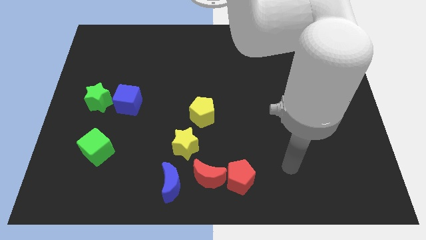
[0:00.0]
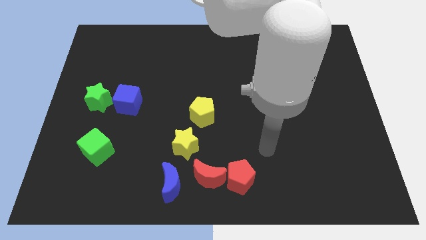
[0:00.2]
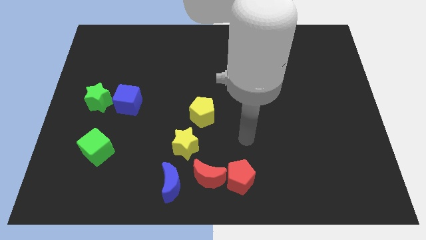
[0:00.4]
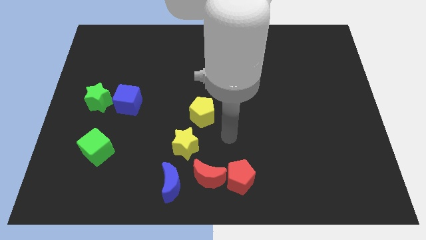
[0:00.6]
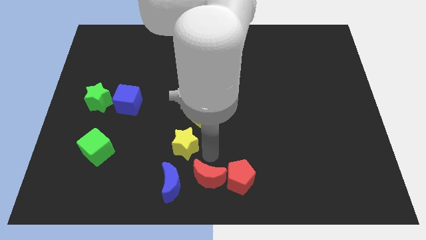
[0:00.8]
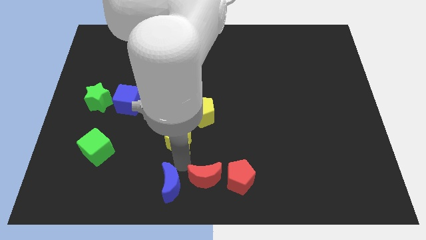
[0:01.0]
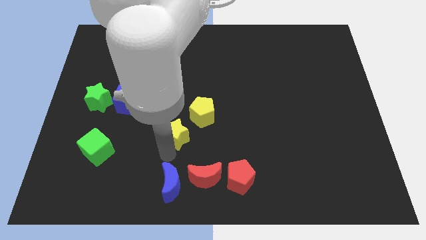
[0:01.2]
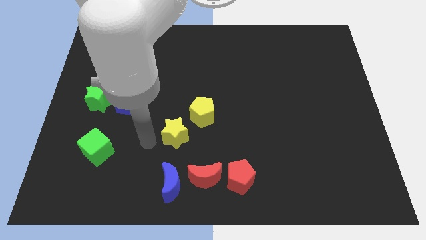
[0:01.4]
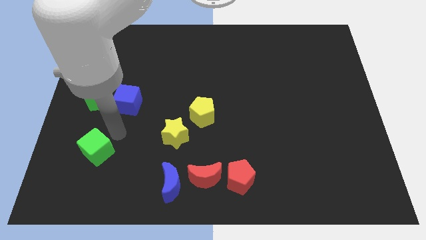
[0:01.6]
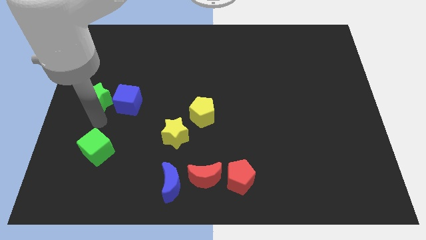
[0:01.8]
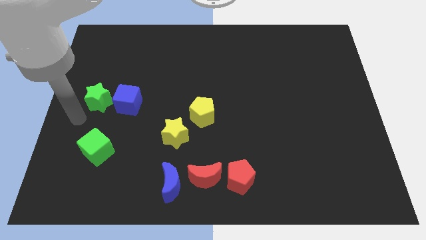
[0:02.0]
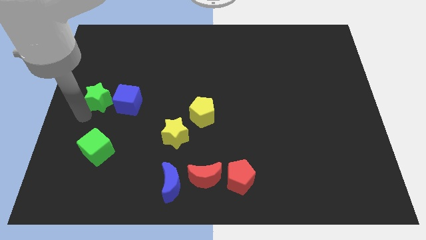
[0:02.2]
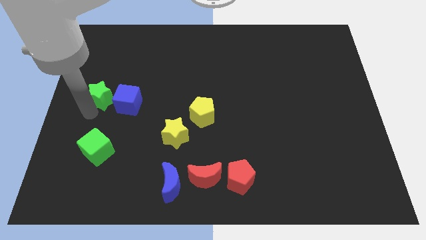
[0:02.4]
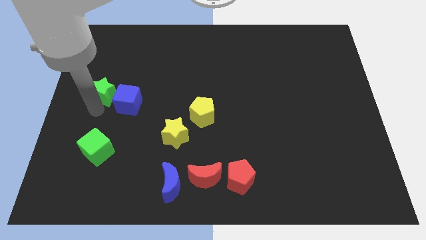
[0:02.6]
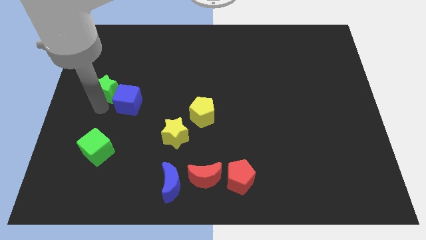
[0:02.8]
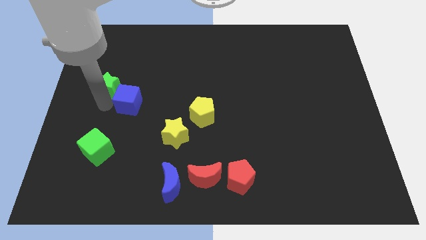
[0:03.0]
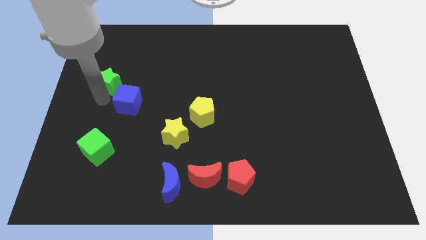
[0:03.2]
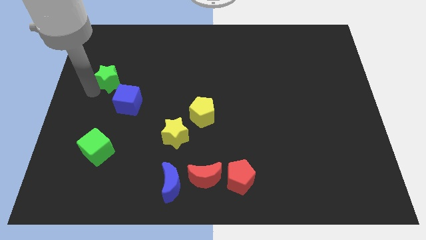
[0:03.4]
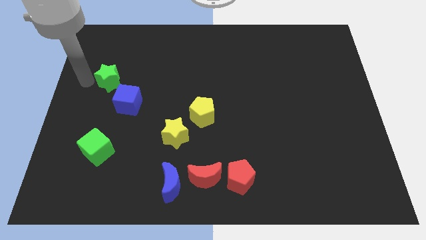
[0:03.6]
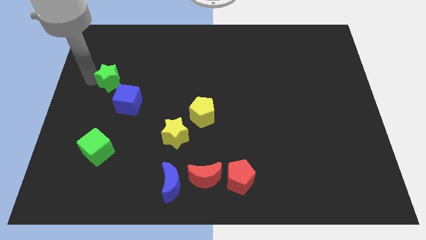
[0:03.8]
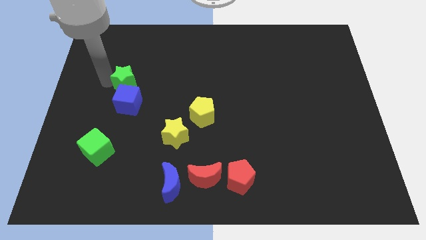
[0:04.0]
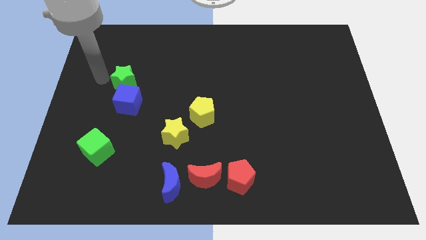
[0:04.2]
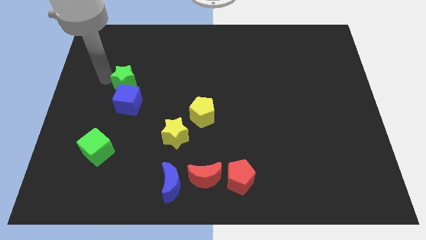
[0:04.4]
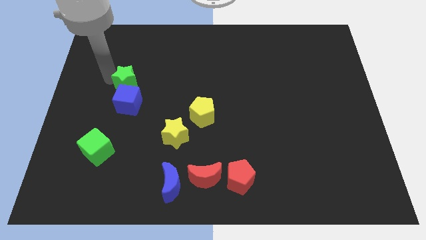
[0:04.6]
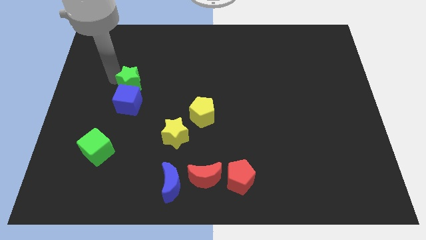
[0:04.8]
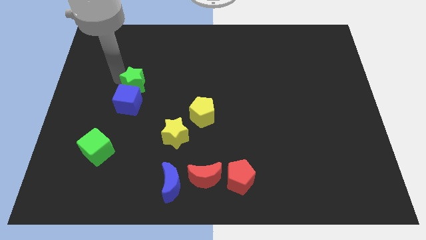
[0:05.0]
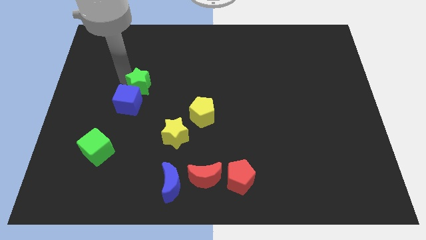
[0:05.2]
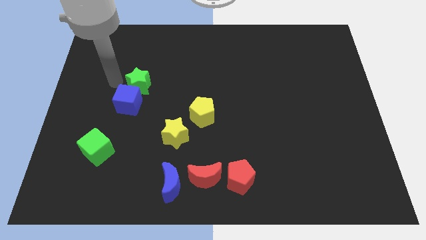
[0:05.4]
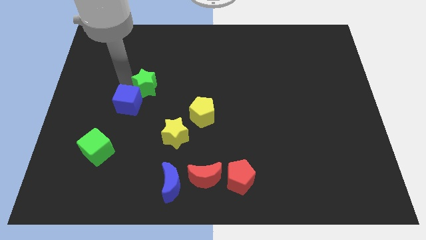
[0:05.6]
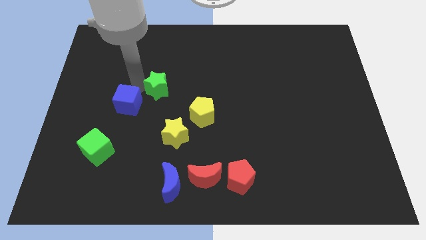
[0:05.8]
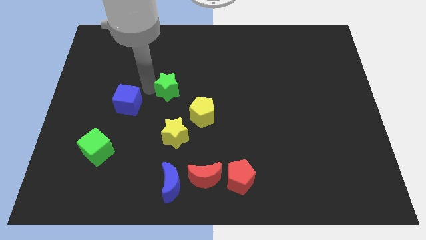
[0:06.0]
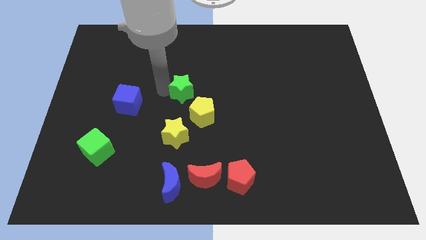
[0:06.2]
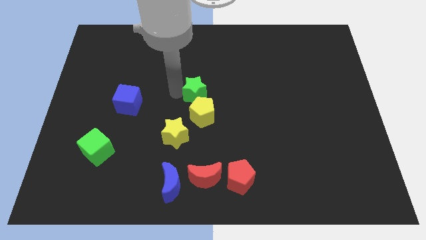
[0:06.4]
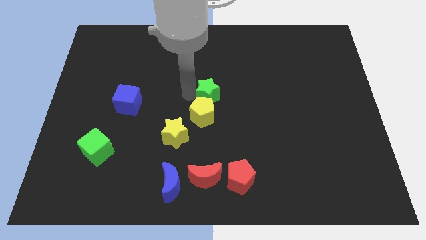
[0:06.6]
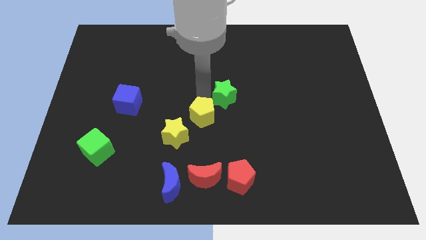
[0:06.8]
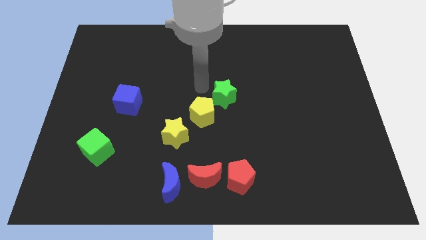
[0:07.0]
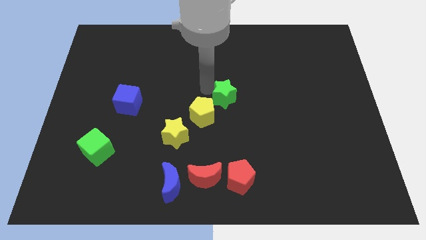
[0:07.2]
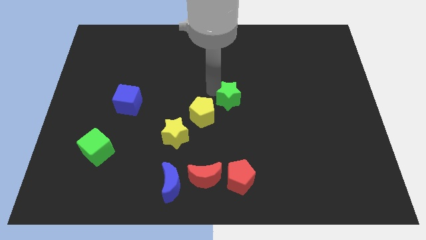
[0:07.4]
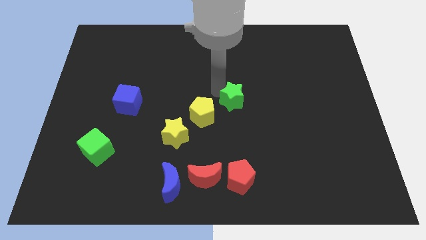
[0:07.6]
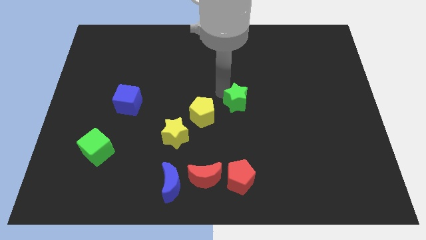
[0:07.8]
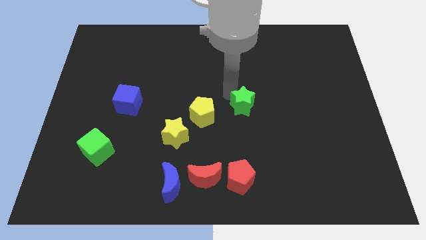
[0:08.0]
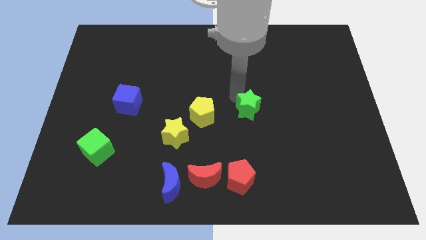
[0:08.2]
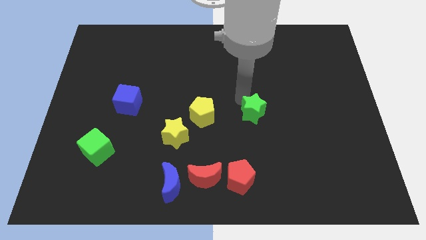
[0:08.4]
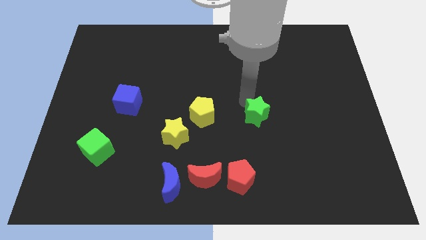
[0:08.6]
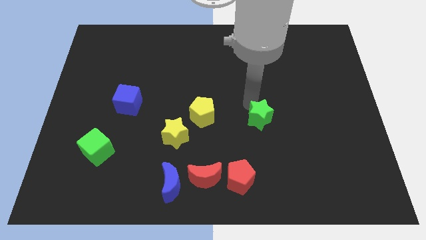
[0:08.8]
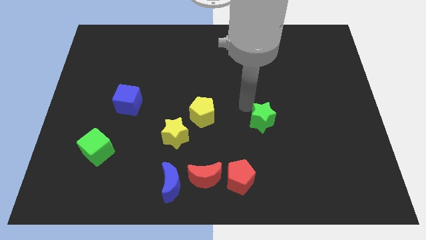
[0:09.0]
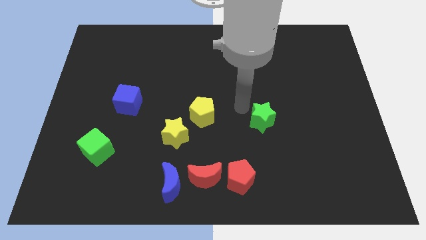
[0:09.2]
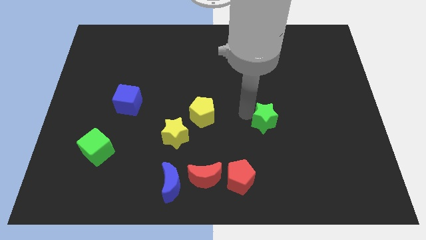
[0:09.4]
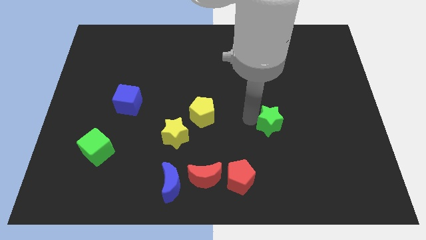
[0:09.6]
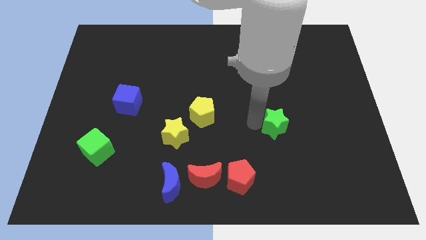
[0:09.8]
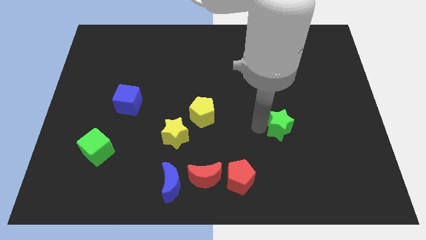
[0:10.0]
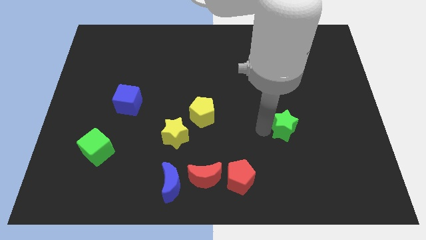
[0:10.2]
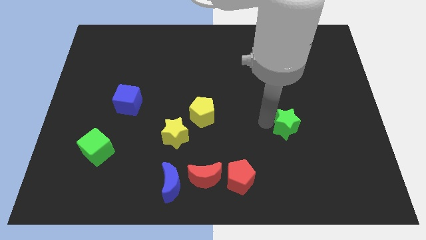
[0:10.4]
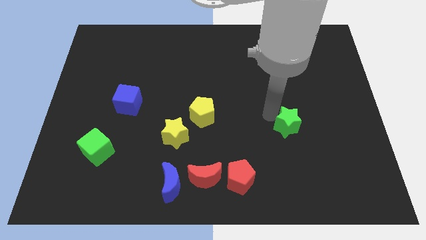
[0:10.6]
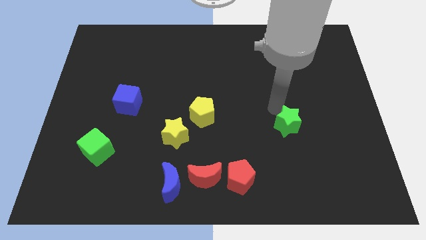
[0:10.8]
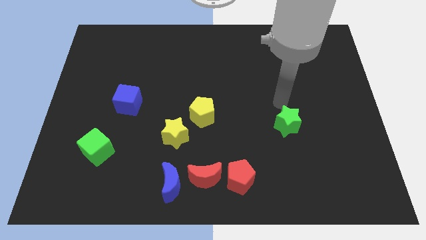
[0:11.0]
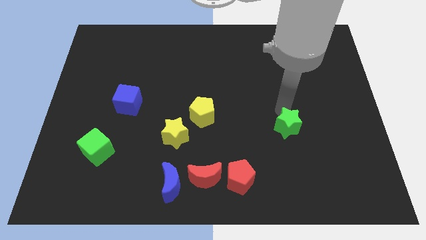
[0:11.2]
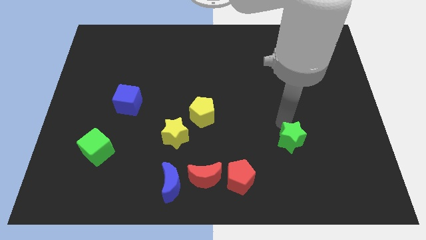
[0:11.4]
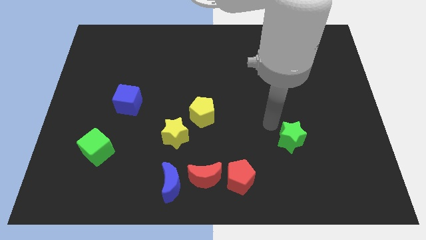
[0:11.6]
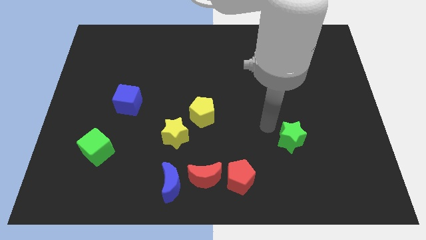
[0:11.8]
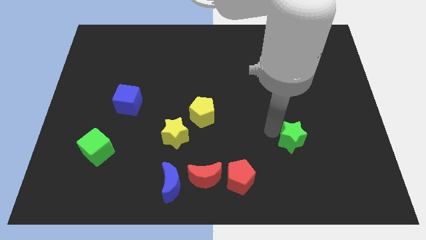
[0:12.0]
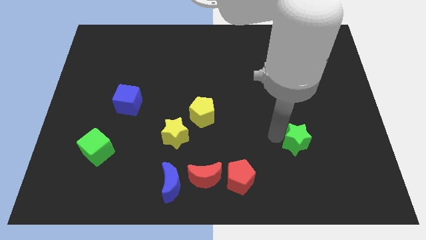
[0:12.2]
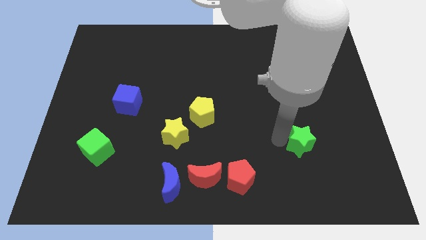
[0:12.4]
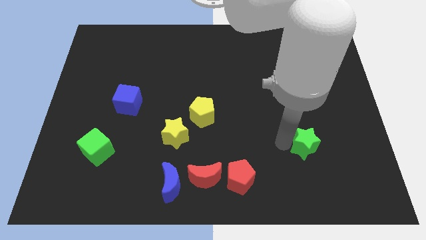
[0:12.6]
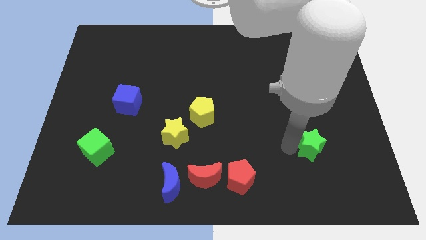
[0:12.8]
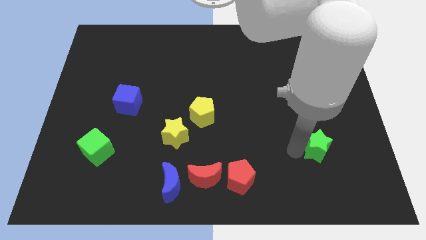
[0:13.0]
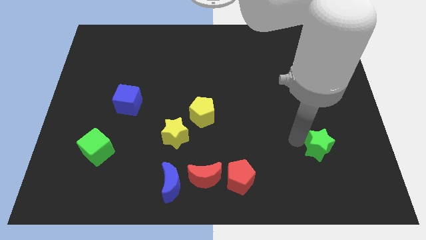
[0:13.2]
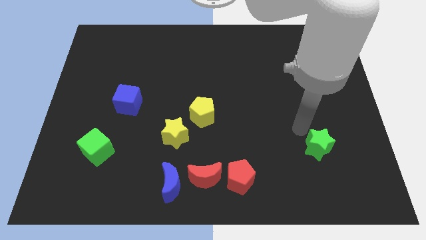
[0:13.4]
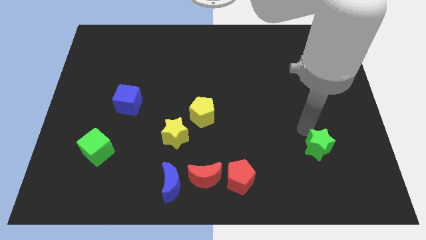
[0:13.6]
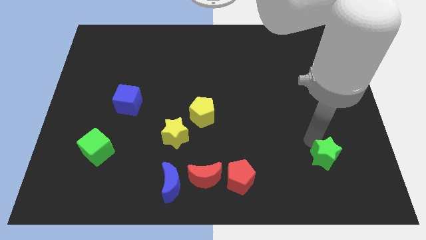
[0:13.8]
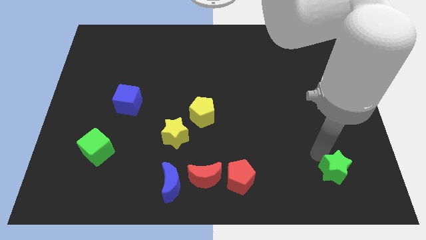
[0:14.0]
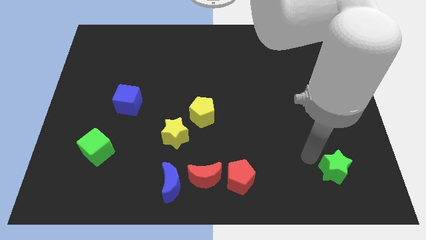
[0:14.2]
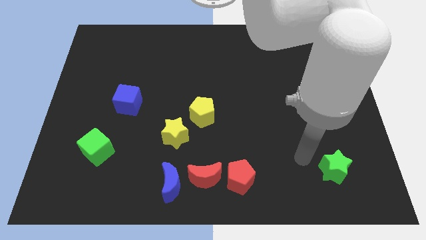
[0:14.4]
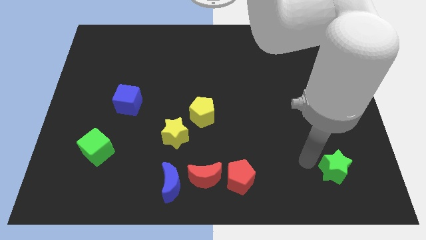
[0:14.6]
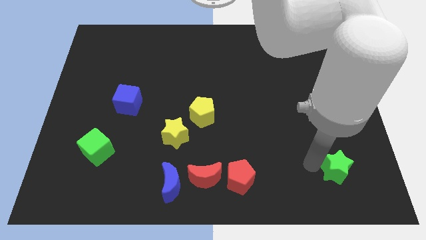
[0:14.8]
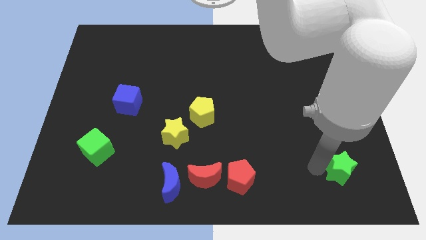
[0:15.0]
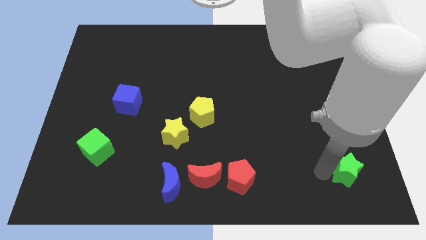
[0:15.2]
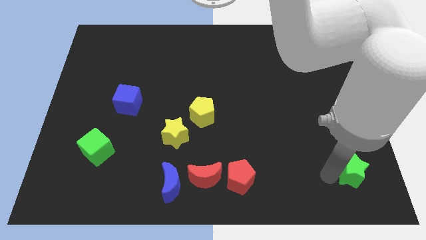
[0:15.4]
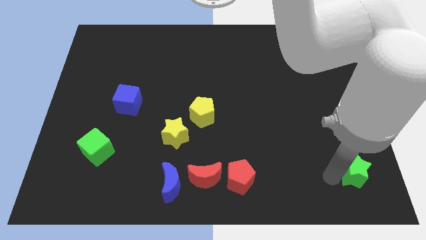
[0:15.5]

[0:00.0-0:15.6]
put the green star to the bottom right of the board
